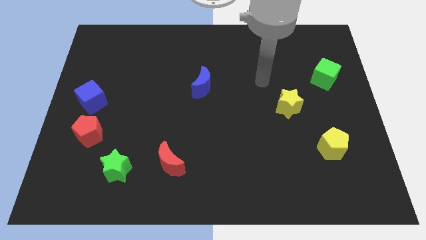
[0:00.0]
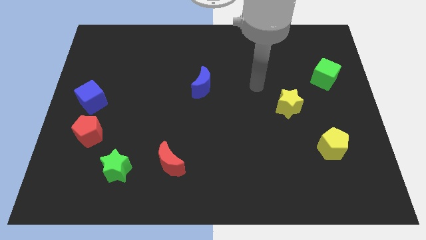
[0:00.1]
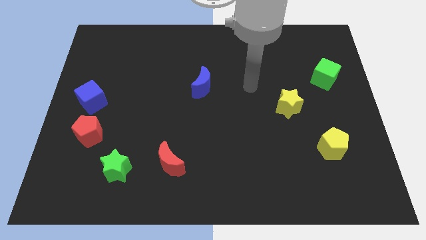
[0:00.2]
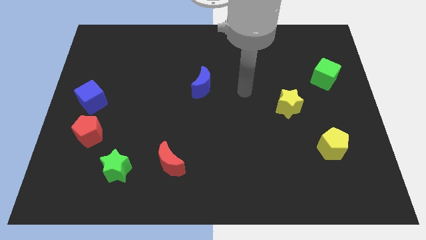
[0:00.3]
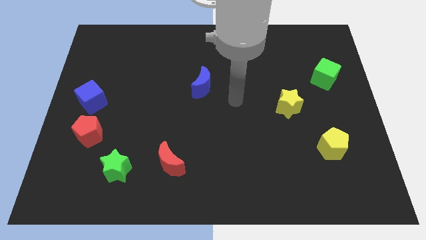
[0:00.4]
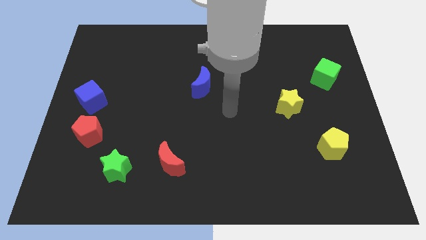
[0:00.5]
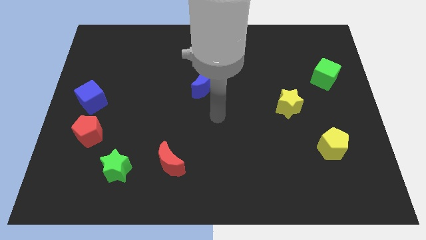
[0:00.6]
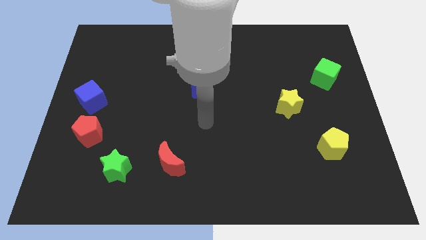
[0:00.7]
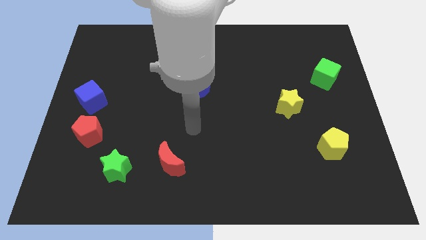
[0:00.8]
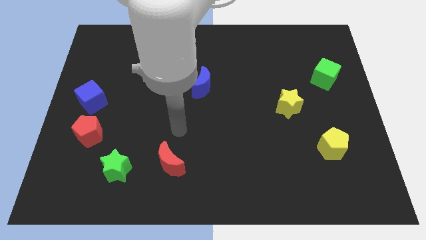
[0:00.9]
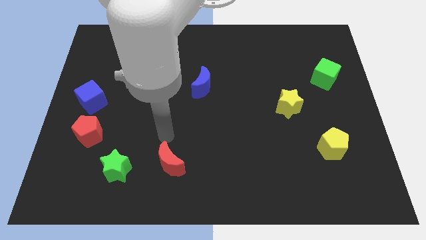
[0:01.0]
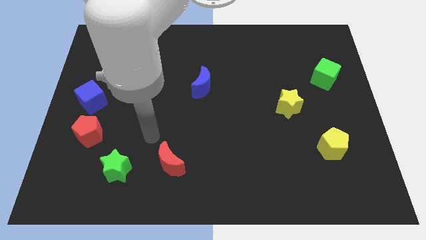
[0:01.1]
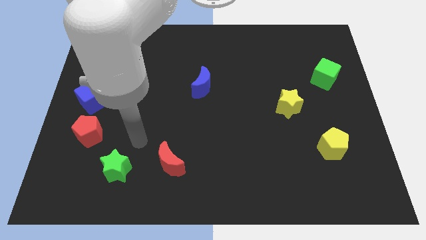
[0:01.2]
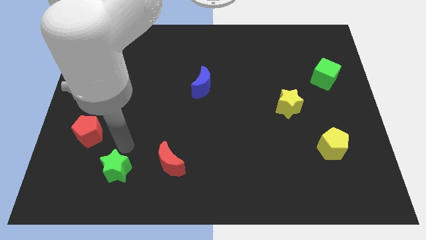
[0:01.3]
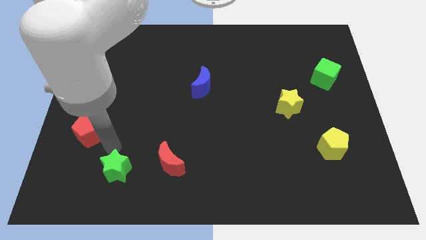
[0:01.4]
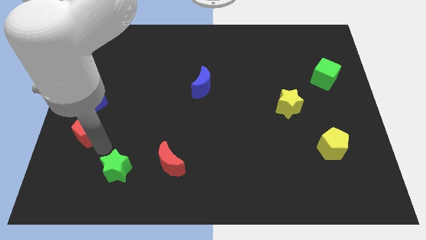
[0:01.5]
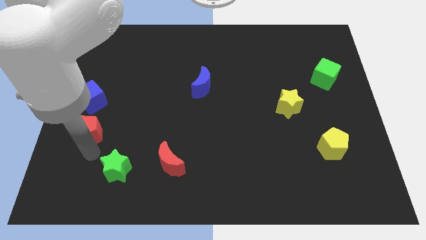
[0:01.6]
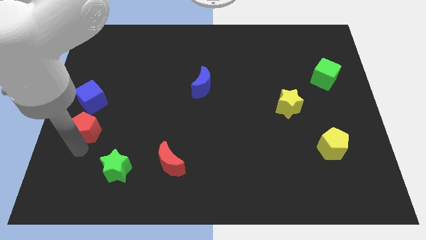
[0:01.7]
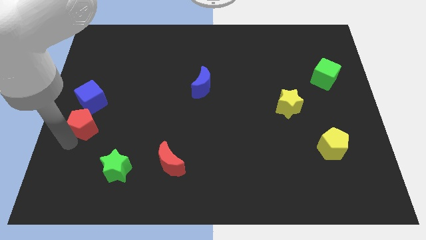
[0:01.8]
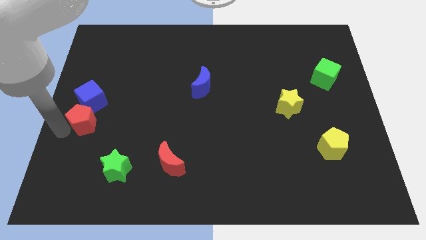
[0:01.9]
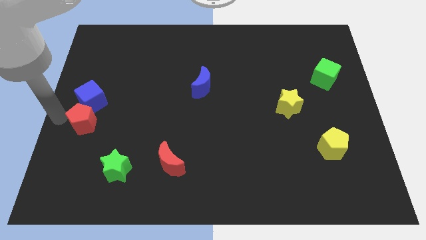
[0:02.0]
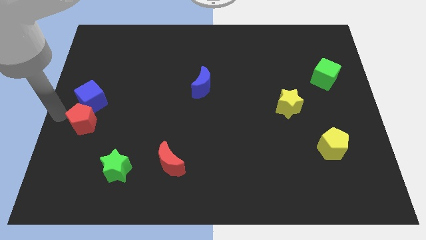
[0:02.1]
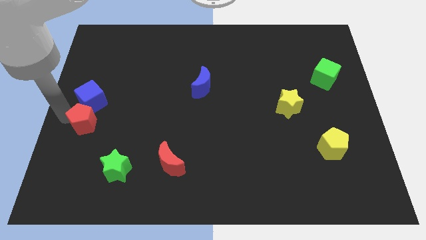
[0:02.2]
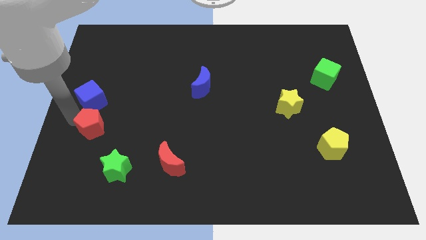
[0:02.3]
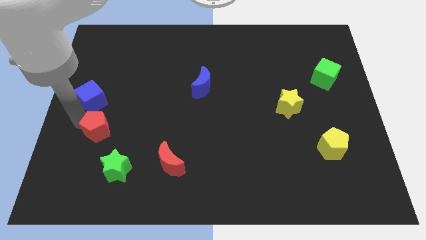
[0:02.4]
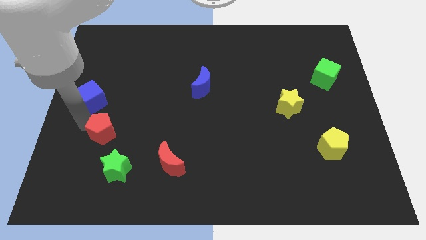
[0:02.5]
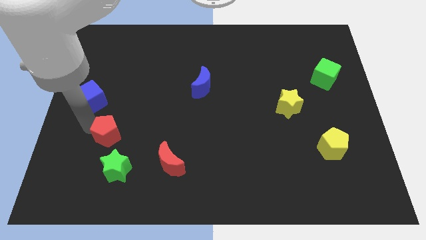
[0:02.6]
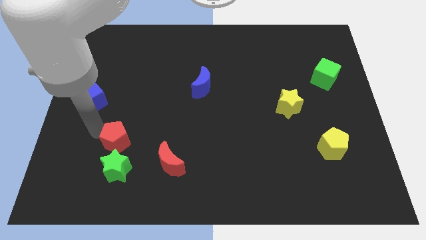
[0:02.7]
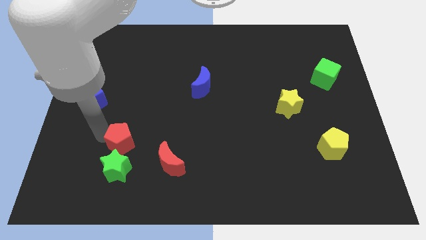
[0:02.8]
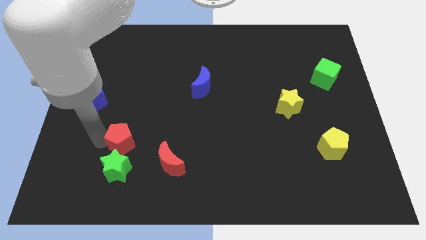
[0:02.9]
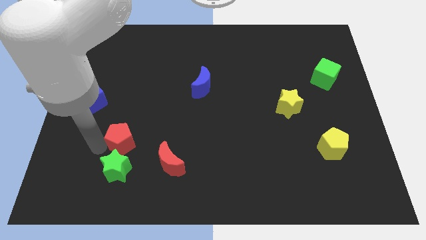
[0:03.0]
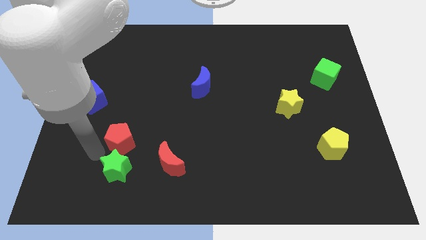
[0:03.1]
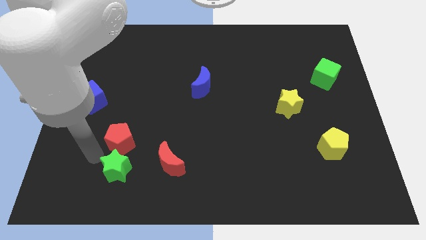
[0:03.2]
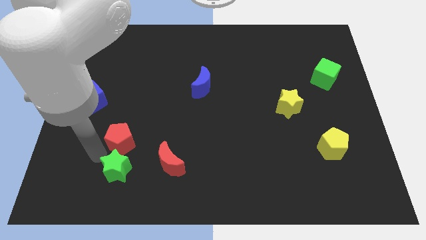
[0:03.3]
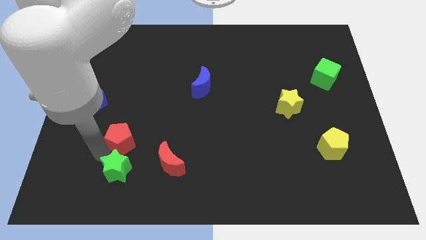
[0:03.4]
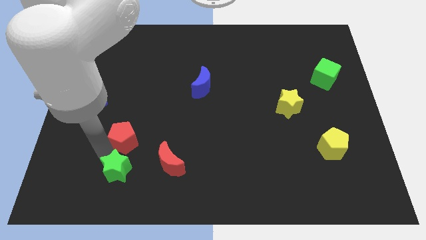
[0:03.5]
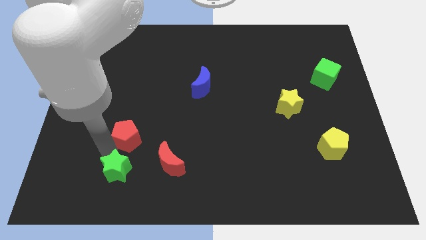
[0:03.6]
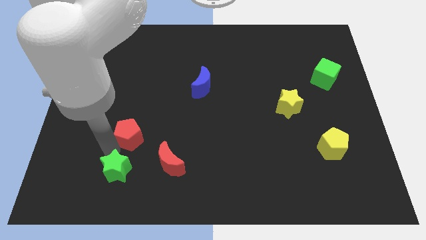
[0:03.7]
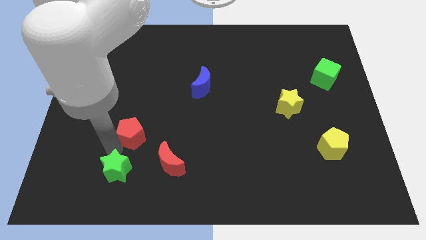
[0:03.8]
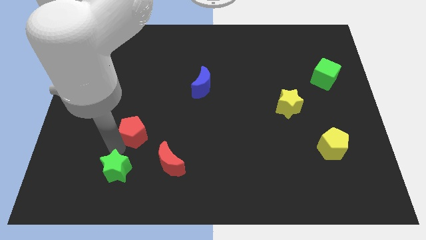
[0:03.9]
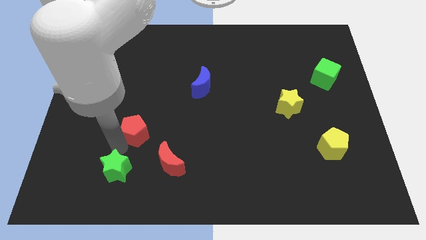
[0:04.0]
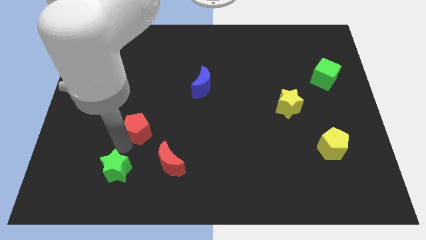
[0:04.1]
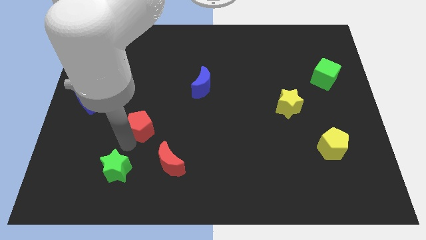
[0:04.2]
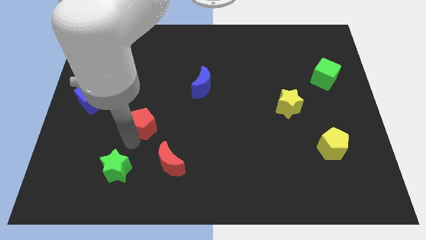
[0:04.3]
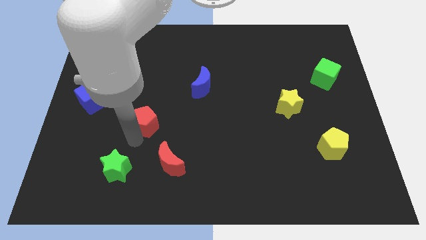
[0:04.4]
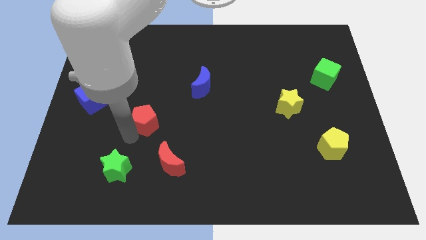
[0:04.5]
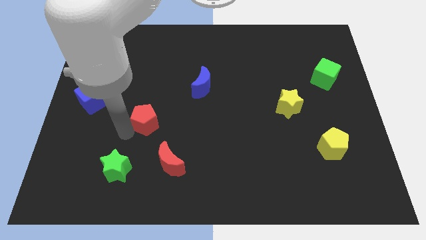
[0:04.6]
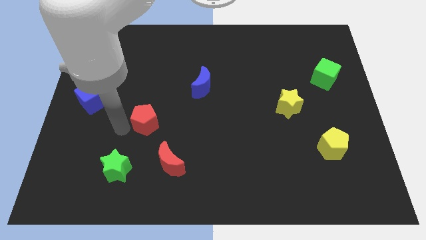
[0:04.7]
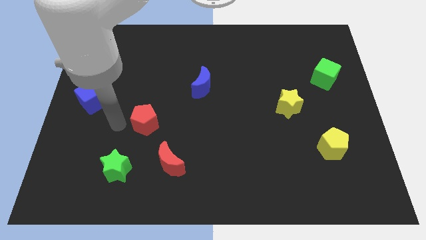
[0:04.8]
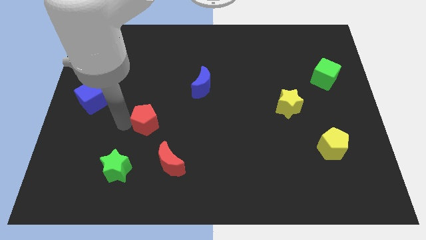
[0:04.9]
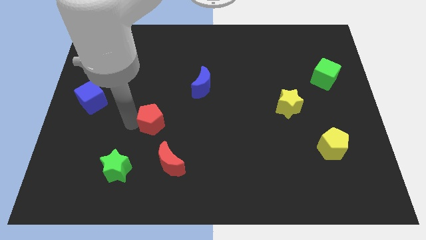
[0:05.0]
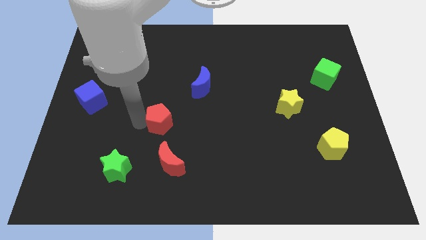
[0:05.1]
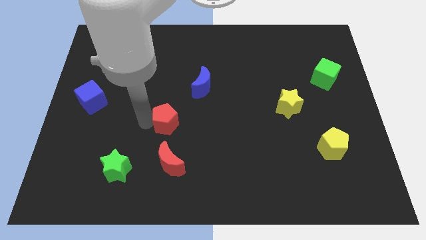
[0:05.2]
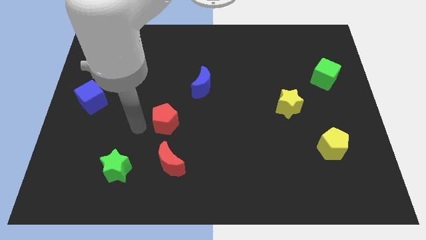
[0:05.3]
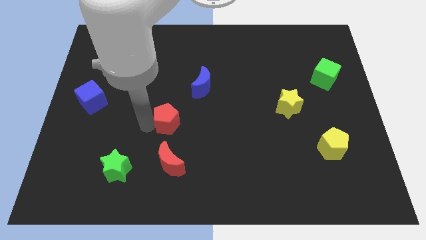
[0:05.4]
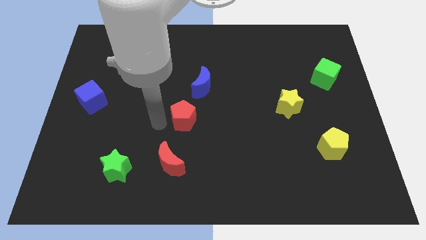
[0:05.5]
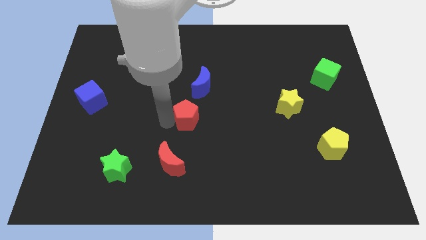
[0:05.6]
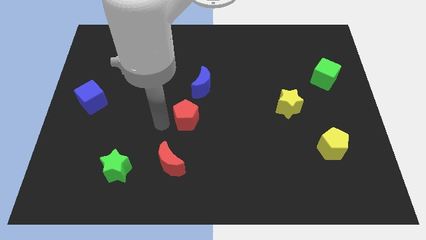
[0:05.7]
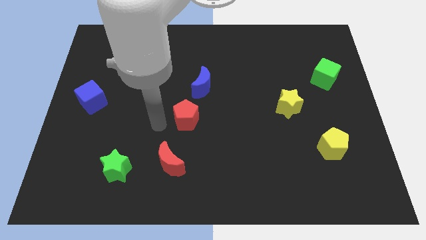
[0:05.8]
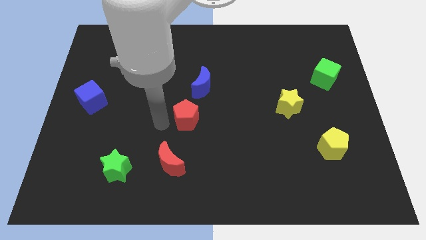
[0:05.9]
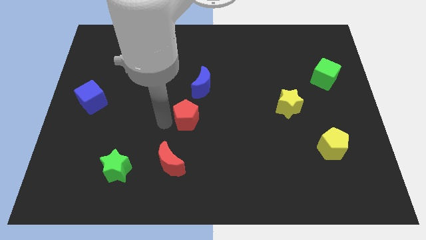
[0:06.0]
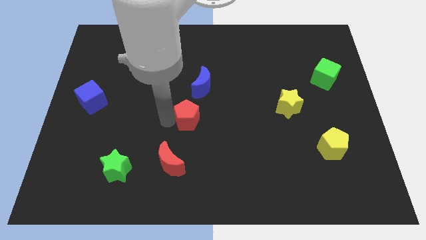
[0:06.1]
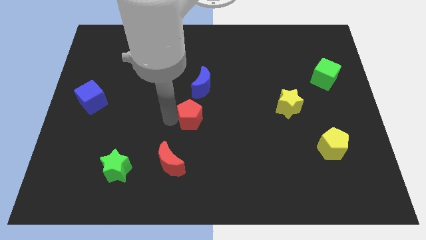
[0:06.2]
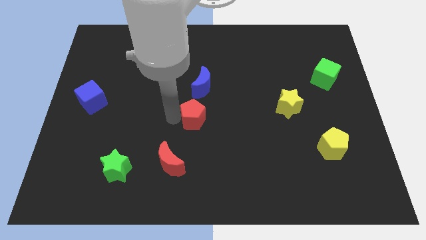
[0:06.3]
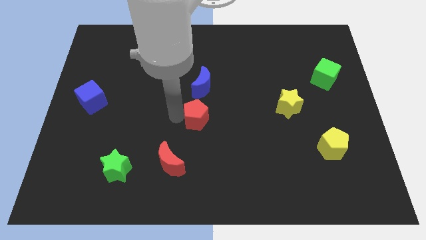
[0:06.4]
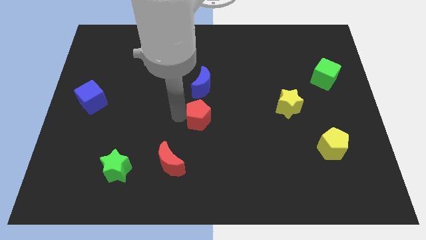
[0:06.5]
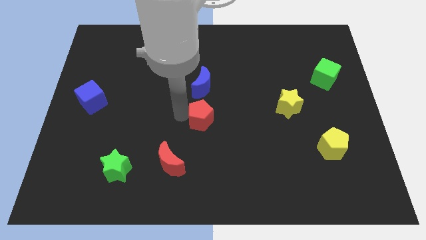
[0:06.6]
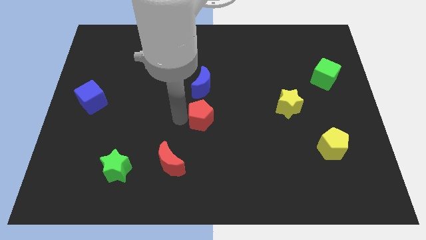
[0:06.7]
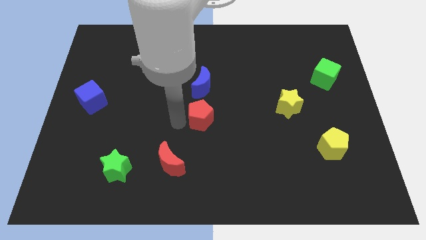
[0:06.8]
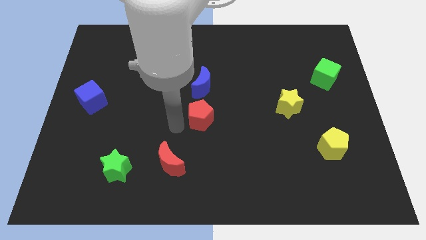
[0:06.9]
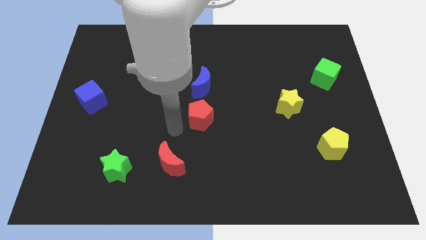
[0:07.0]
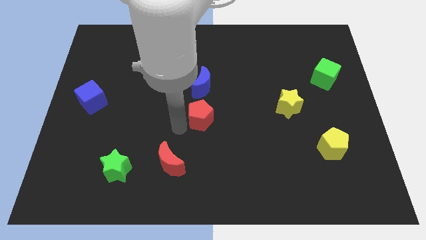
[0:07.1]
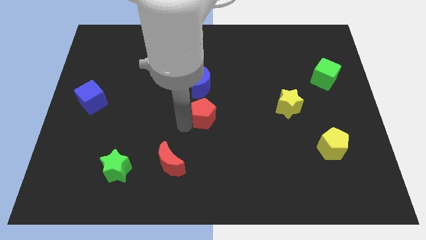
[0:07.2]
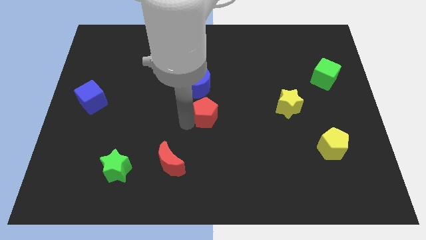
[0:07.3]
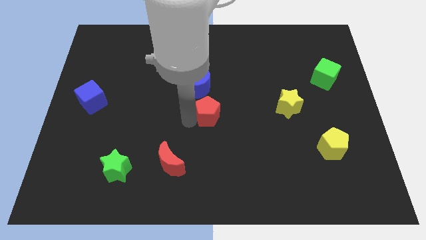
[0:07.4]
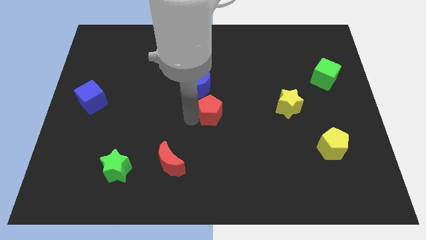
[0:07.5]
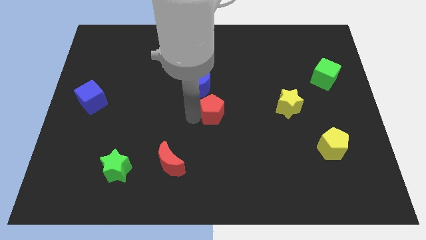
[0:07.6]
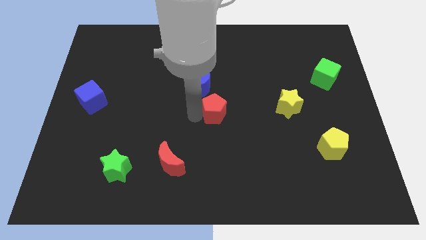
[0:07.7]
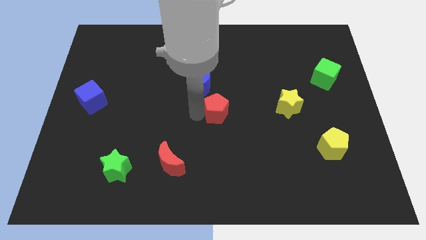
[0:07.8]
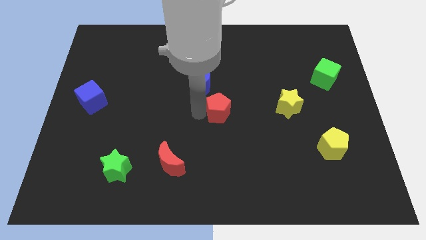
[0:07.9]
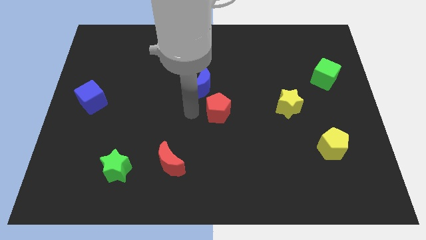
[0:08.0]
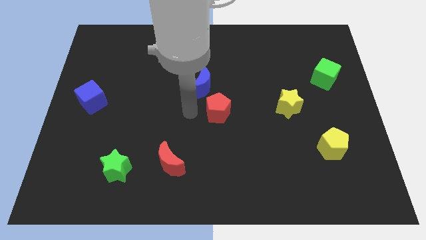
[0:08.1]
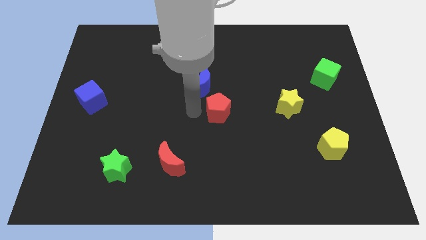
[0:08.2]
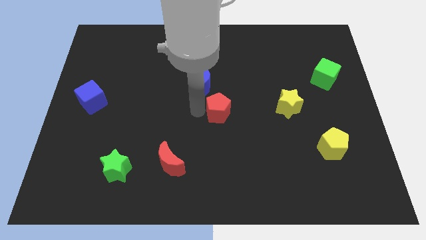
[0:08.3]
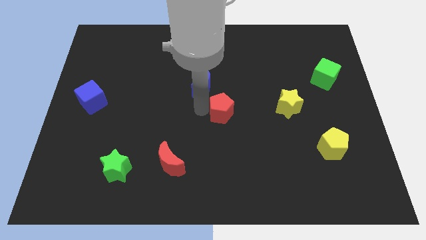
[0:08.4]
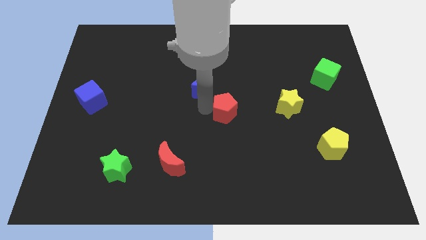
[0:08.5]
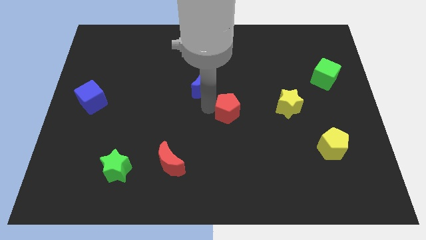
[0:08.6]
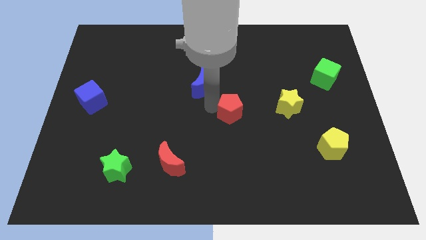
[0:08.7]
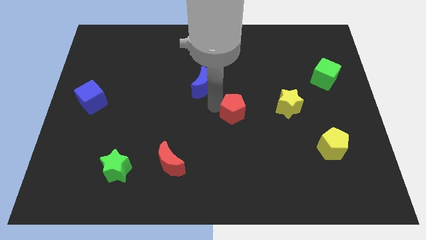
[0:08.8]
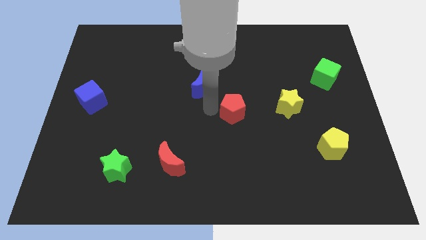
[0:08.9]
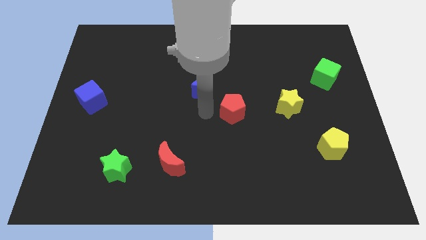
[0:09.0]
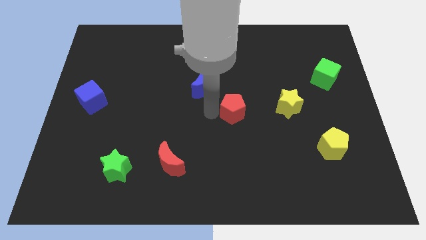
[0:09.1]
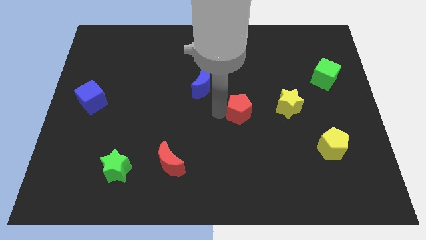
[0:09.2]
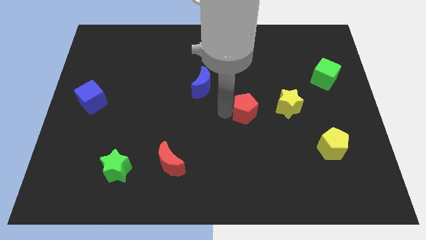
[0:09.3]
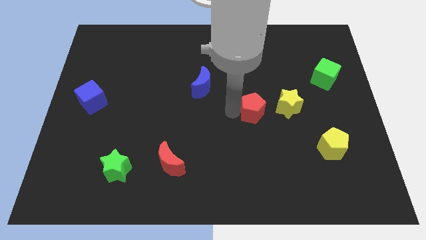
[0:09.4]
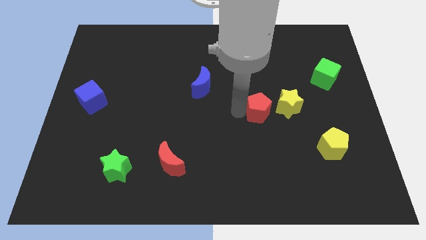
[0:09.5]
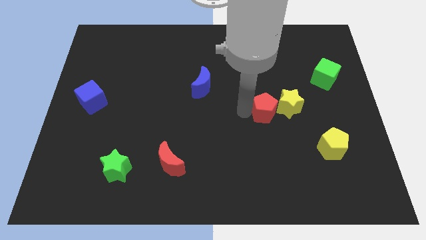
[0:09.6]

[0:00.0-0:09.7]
slide the red pentagon towards the yellow star
